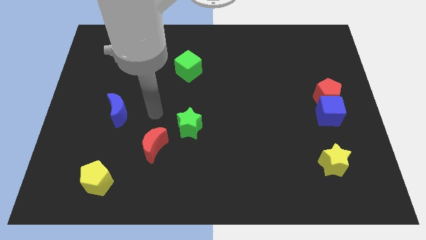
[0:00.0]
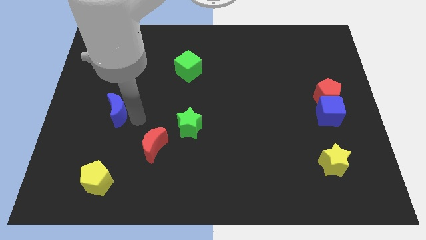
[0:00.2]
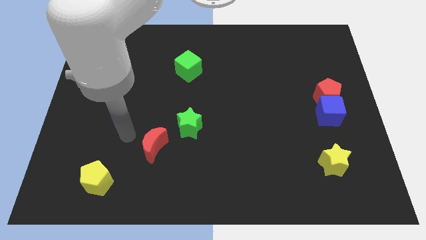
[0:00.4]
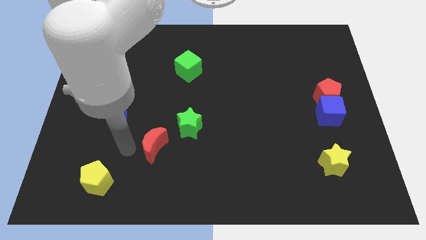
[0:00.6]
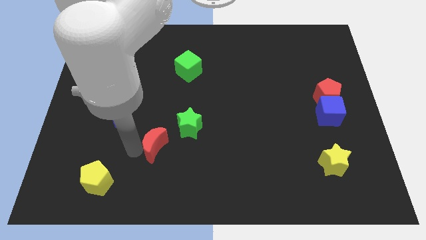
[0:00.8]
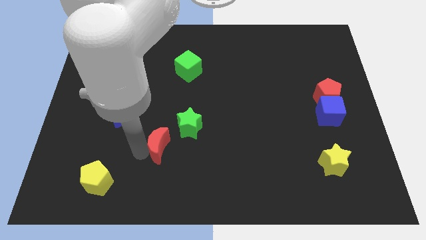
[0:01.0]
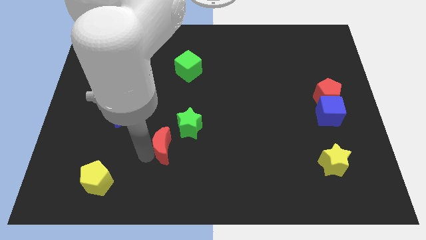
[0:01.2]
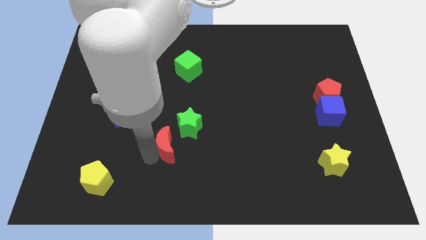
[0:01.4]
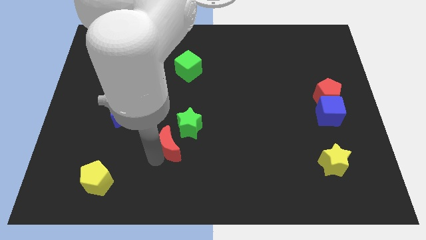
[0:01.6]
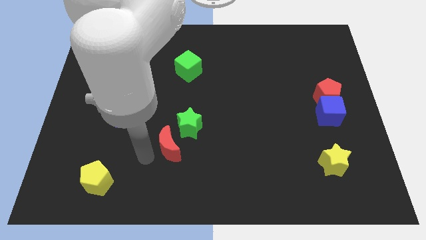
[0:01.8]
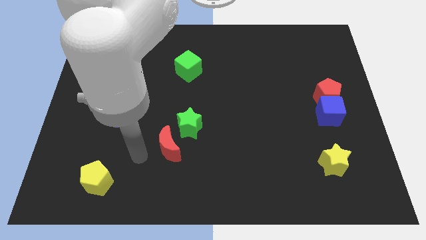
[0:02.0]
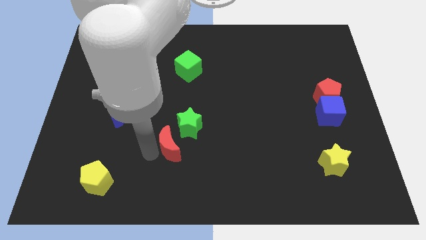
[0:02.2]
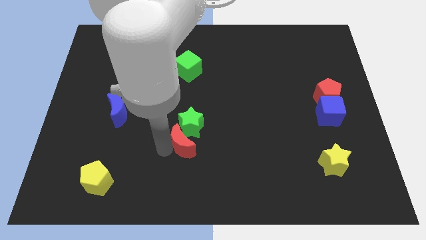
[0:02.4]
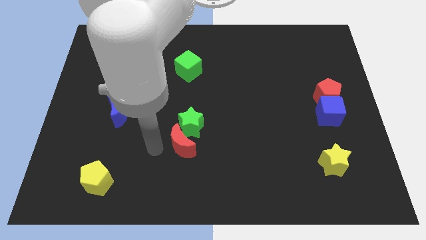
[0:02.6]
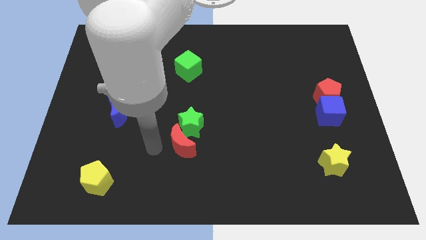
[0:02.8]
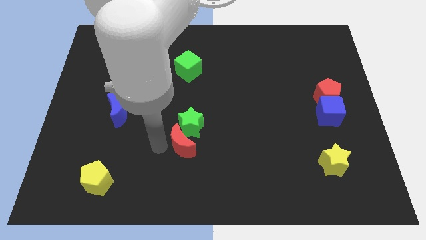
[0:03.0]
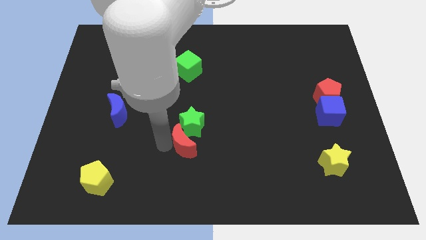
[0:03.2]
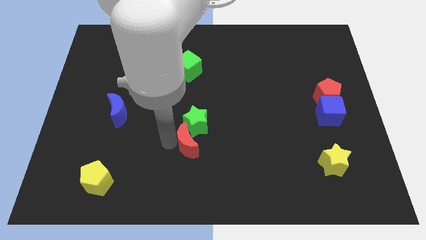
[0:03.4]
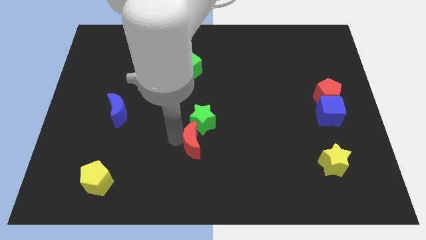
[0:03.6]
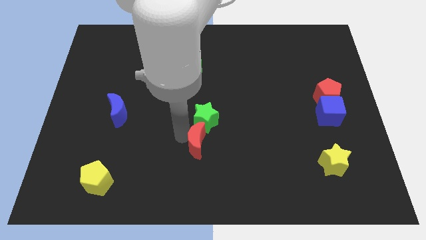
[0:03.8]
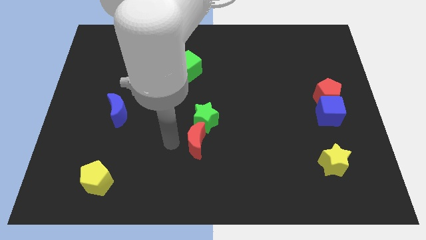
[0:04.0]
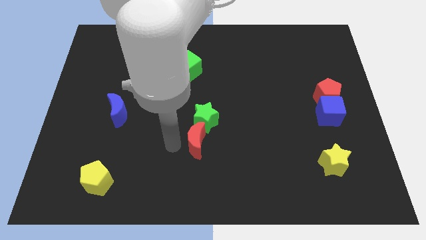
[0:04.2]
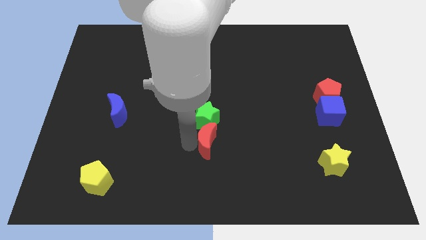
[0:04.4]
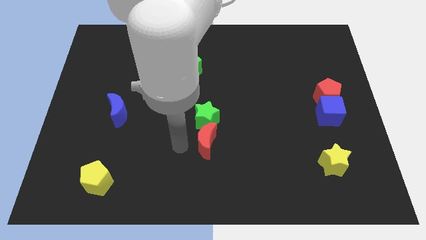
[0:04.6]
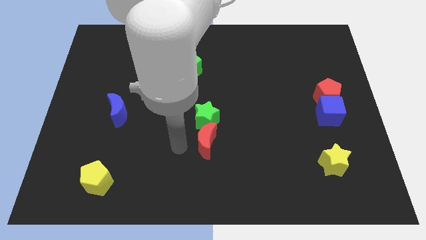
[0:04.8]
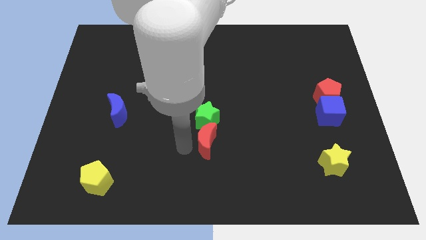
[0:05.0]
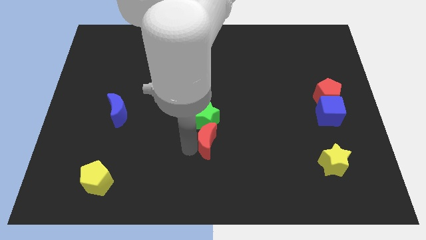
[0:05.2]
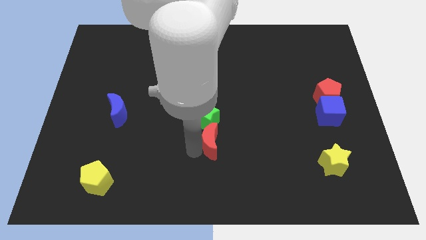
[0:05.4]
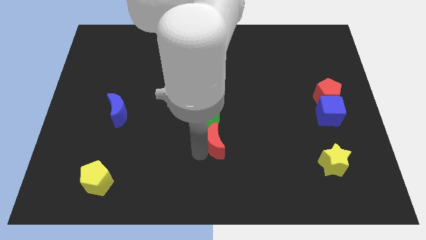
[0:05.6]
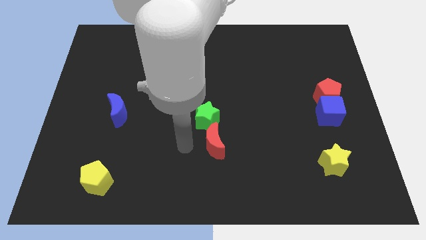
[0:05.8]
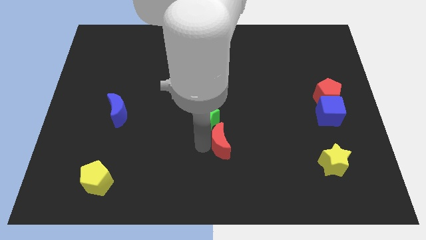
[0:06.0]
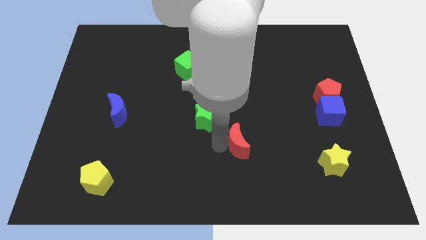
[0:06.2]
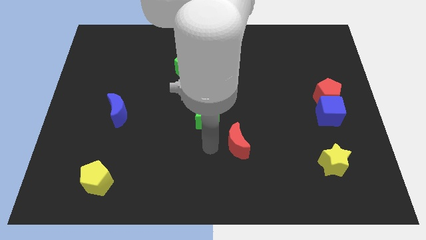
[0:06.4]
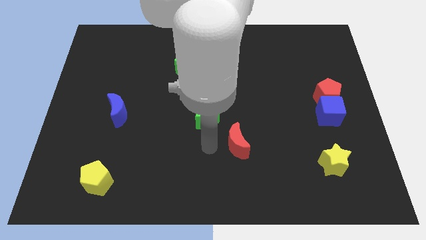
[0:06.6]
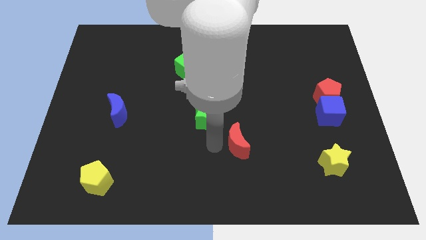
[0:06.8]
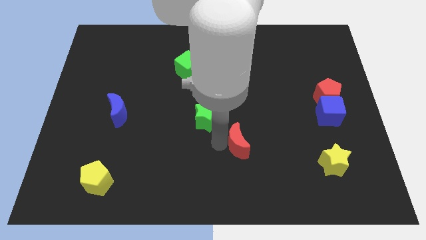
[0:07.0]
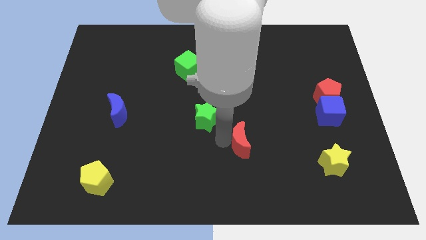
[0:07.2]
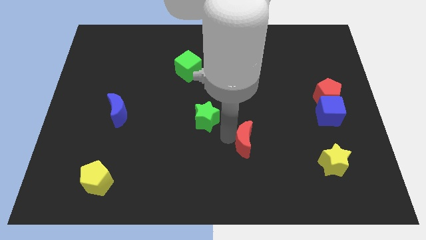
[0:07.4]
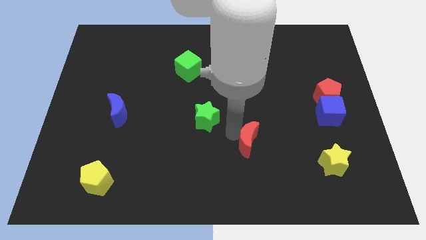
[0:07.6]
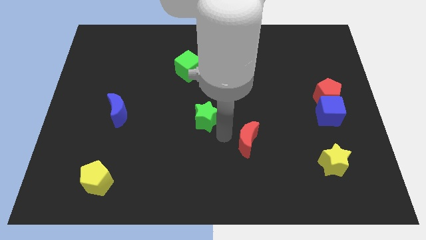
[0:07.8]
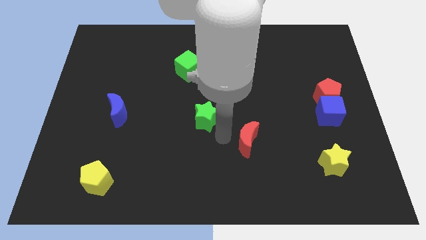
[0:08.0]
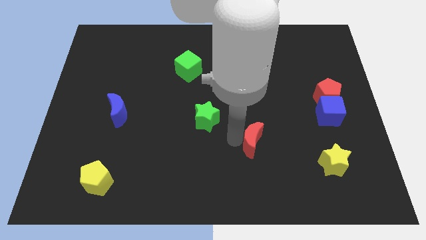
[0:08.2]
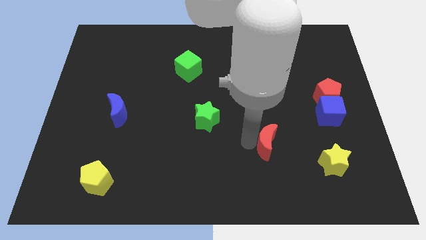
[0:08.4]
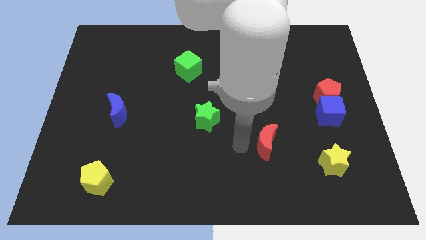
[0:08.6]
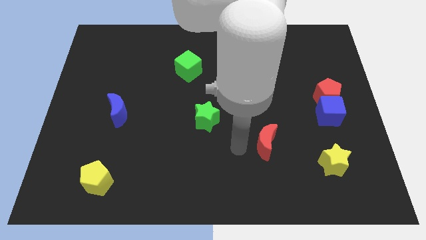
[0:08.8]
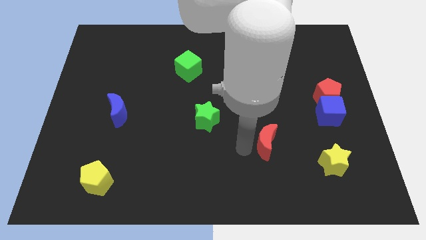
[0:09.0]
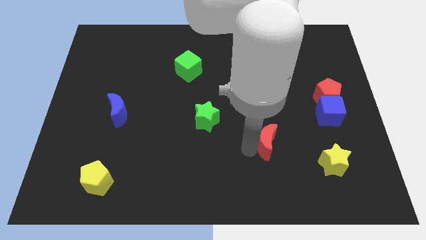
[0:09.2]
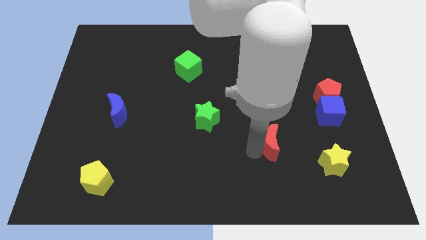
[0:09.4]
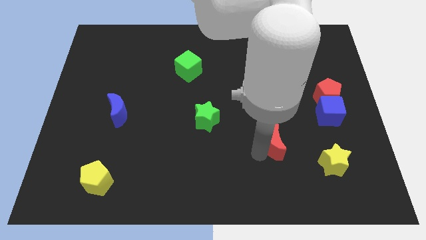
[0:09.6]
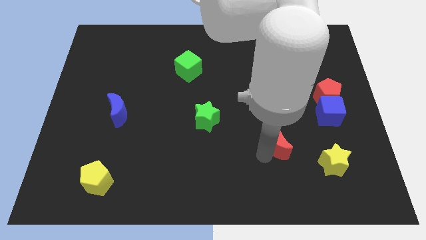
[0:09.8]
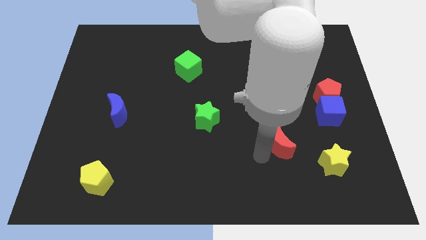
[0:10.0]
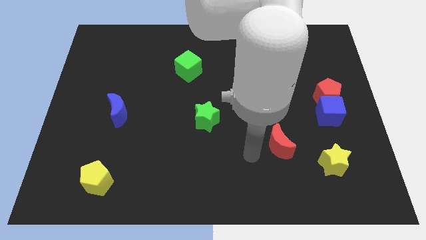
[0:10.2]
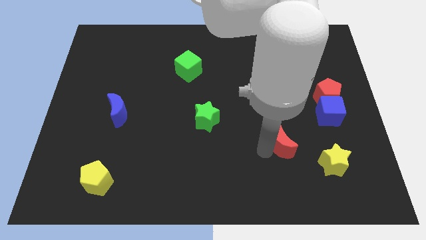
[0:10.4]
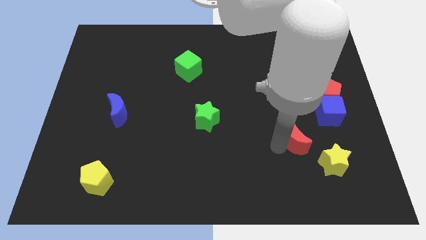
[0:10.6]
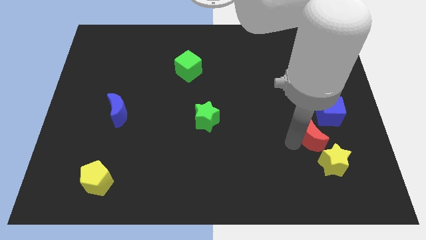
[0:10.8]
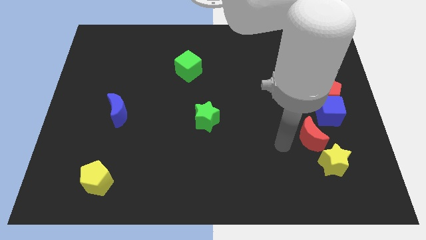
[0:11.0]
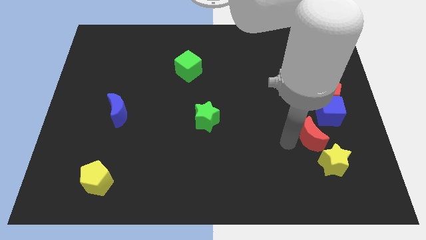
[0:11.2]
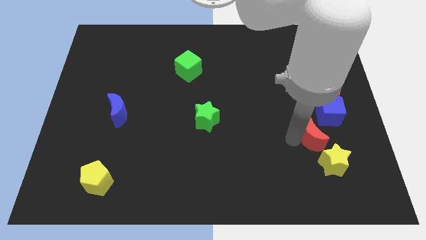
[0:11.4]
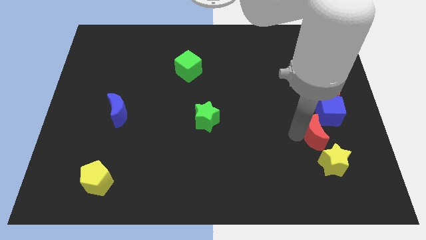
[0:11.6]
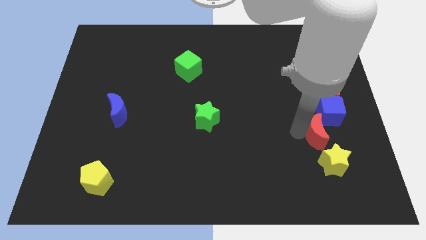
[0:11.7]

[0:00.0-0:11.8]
move the red moon to the bottom side of the red pentagon

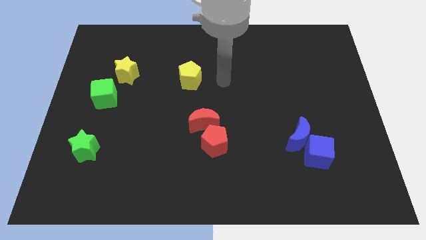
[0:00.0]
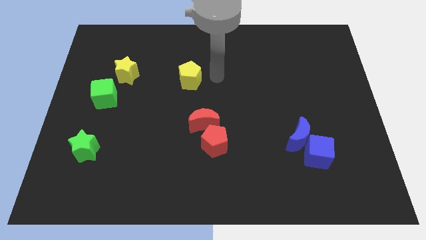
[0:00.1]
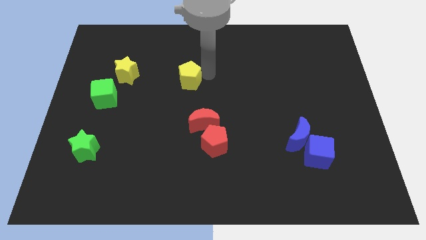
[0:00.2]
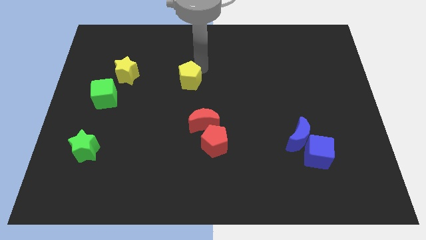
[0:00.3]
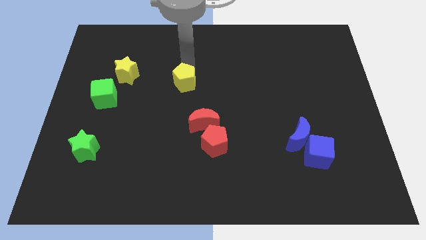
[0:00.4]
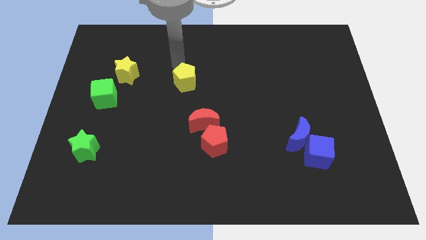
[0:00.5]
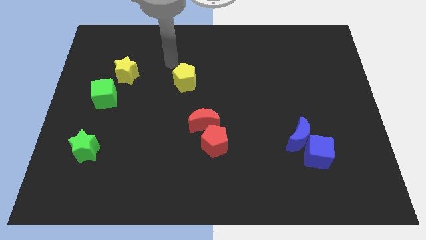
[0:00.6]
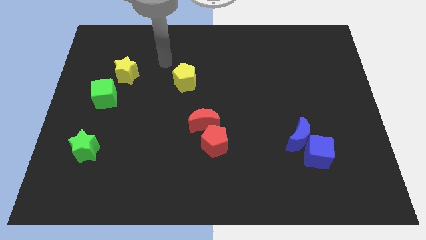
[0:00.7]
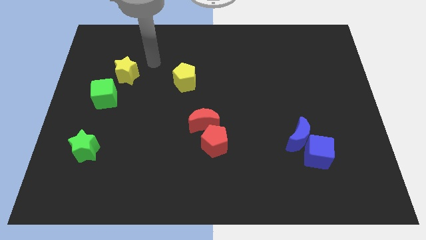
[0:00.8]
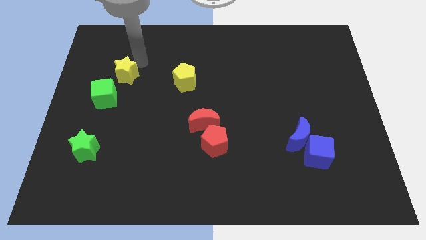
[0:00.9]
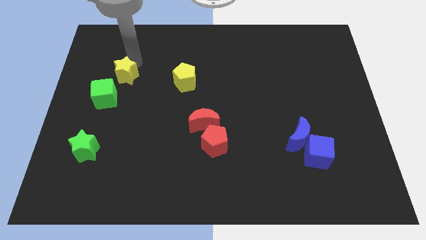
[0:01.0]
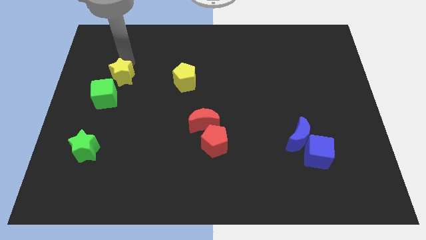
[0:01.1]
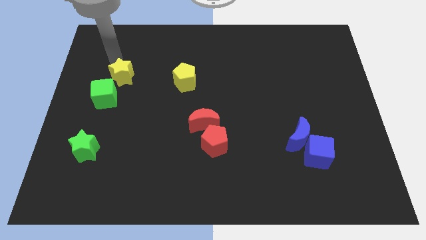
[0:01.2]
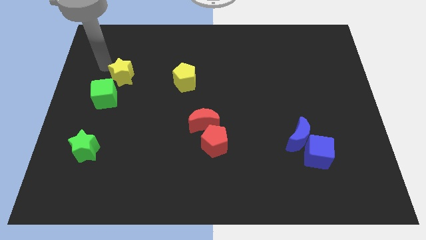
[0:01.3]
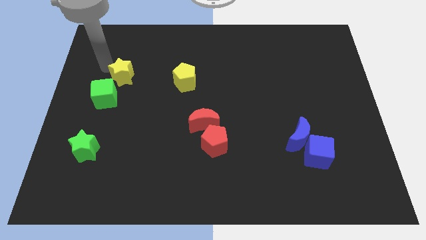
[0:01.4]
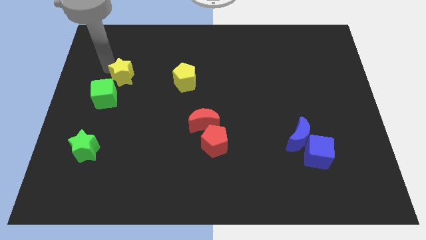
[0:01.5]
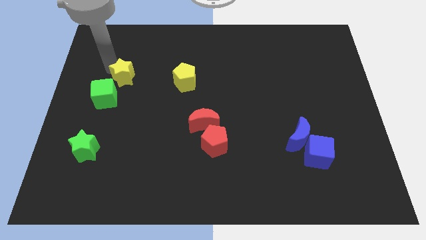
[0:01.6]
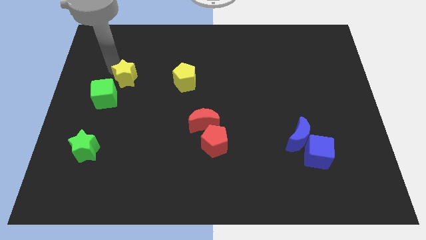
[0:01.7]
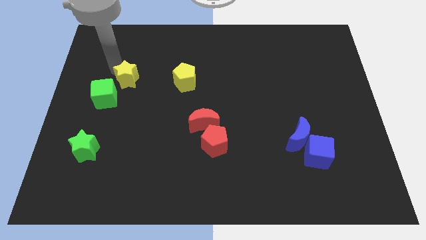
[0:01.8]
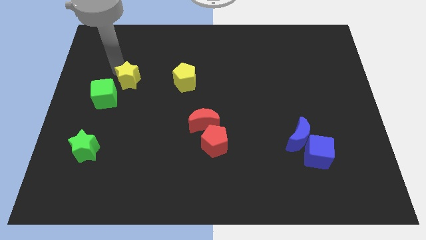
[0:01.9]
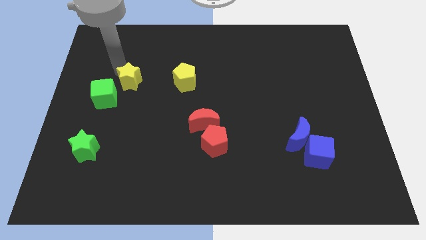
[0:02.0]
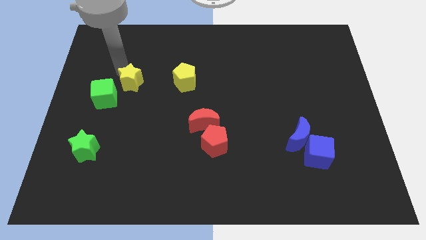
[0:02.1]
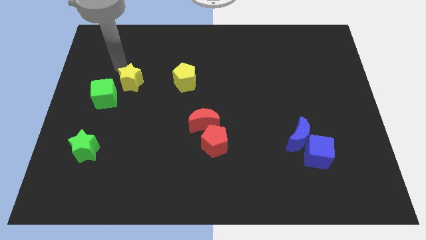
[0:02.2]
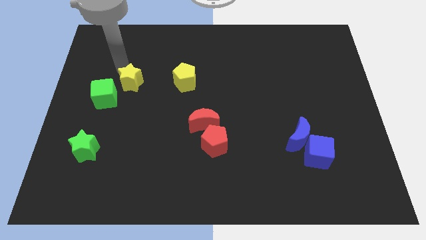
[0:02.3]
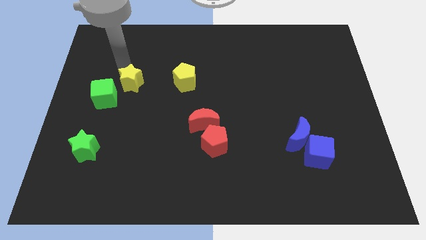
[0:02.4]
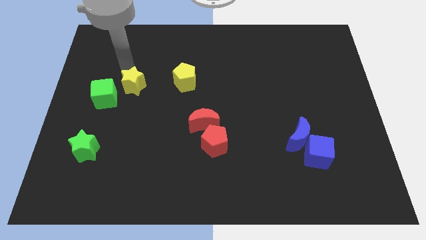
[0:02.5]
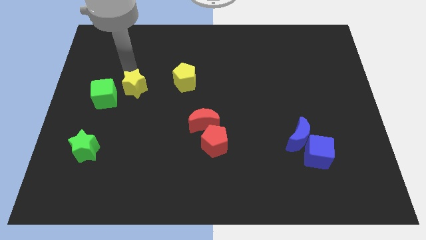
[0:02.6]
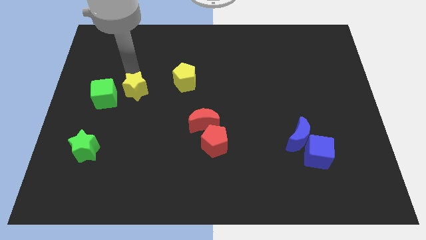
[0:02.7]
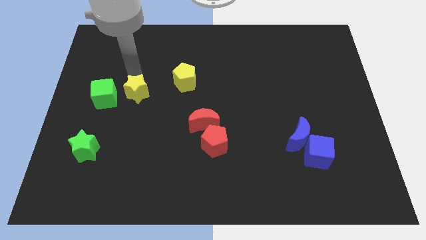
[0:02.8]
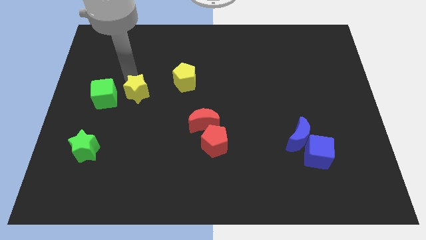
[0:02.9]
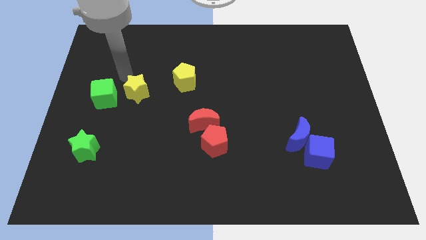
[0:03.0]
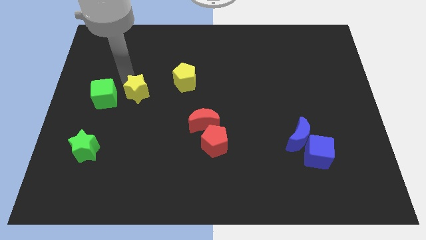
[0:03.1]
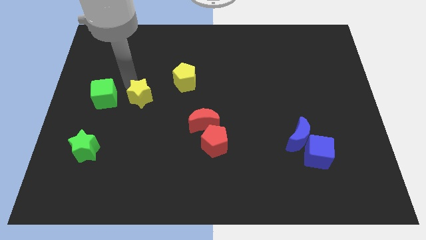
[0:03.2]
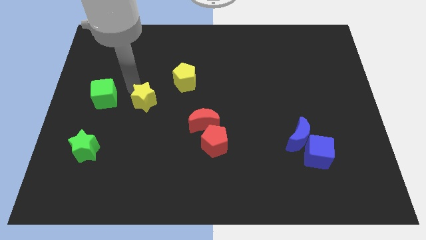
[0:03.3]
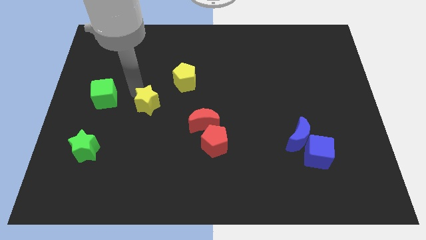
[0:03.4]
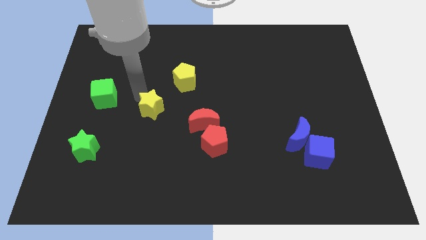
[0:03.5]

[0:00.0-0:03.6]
move the yellow star left of the red moon
